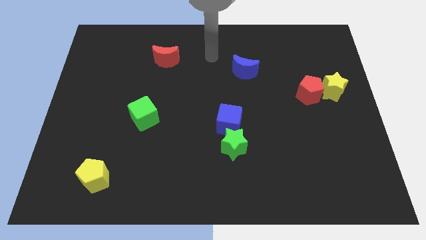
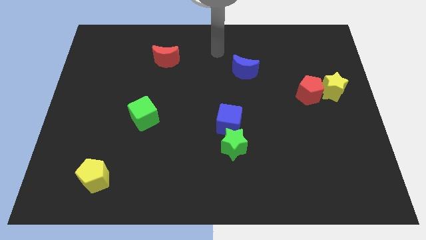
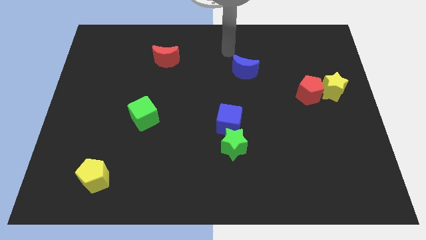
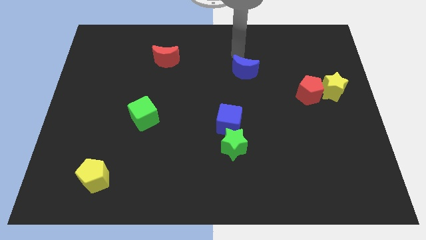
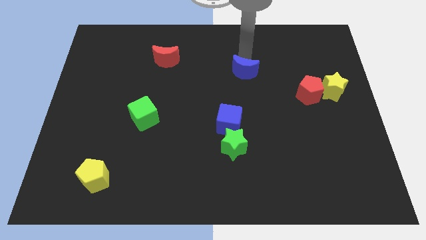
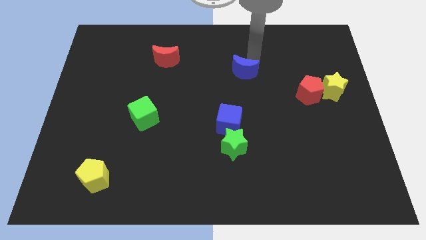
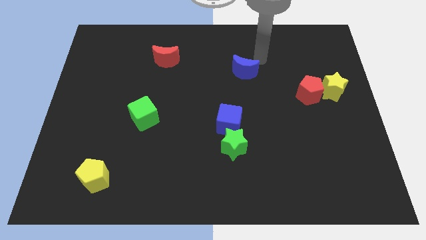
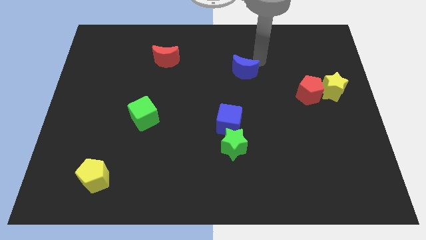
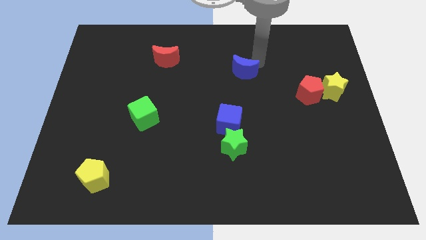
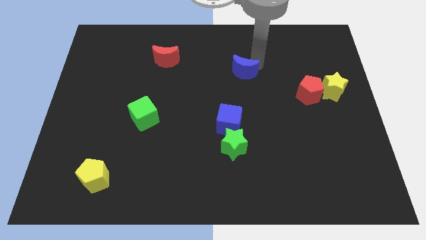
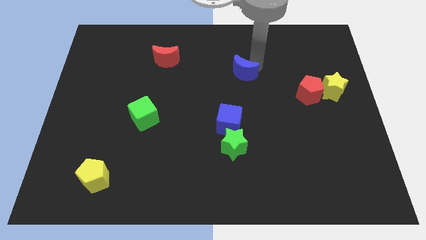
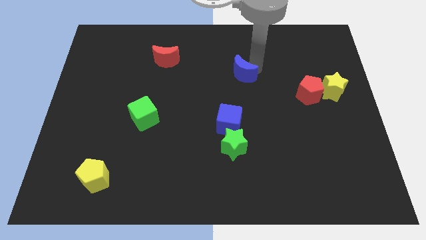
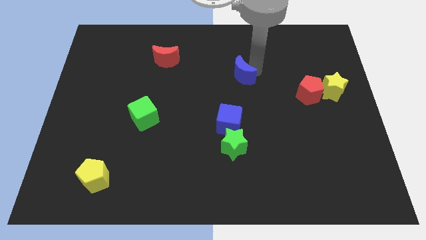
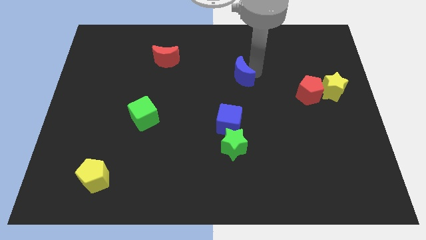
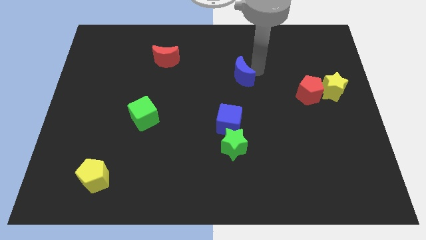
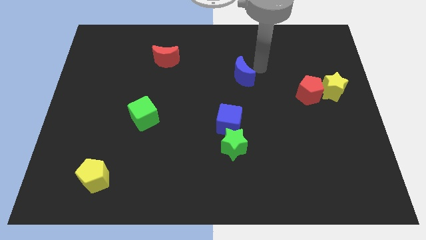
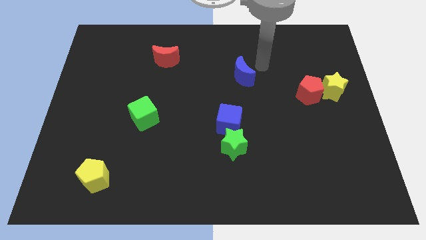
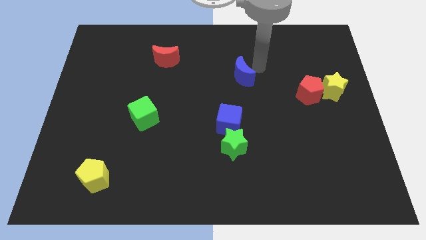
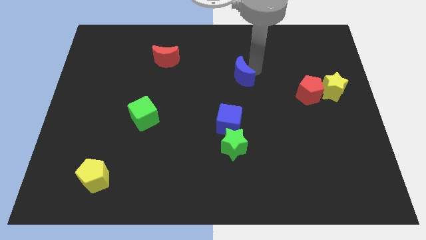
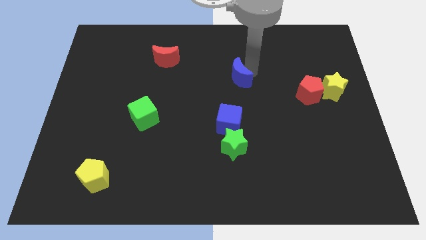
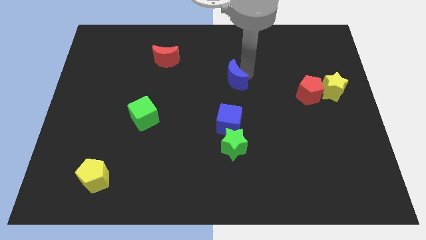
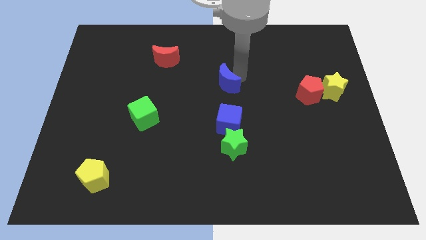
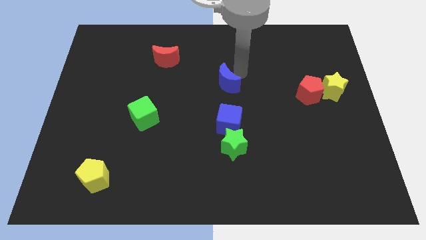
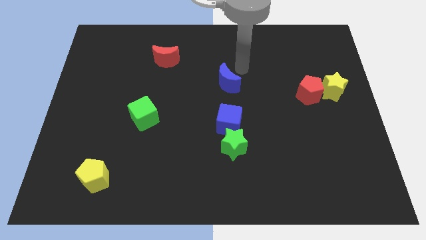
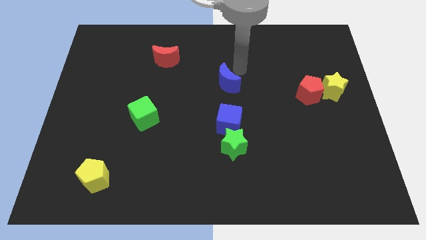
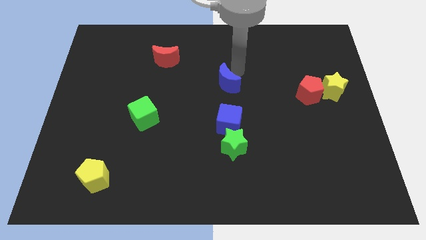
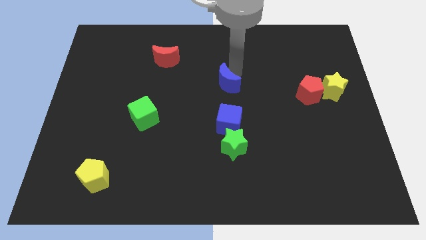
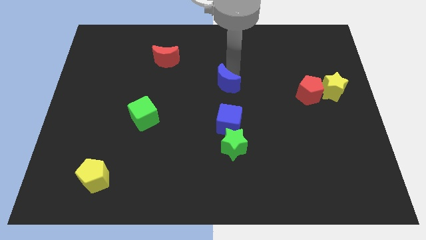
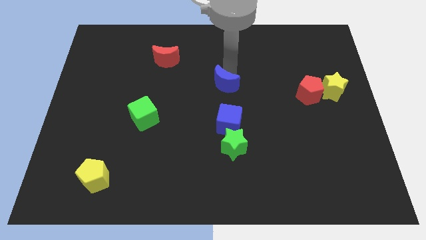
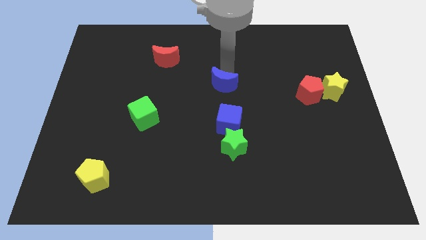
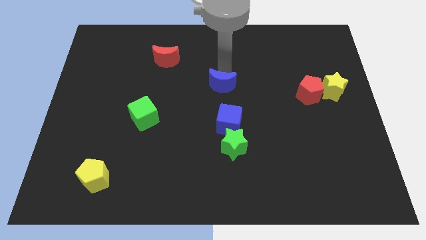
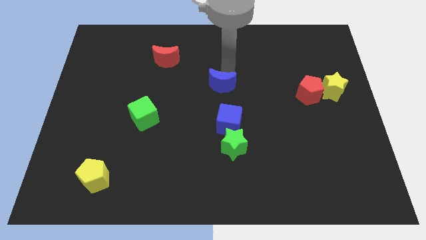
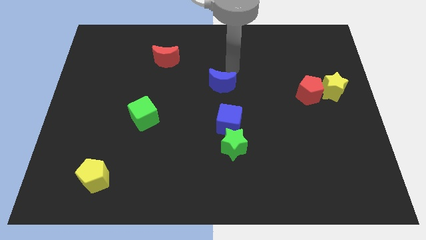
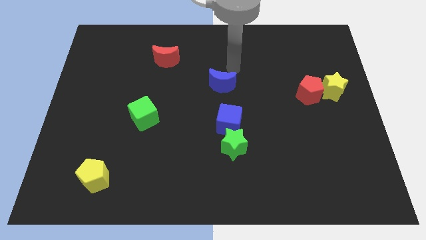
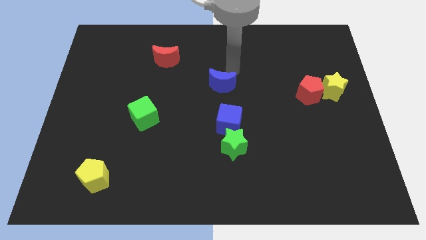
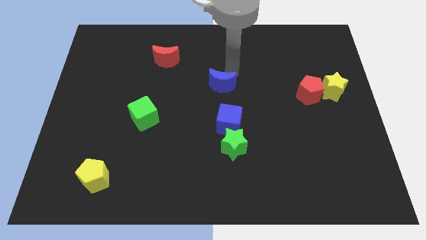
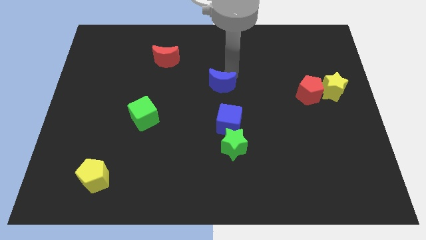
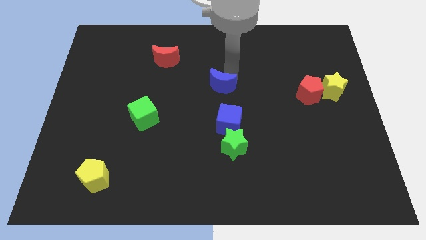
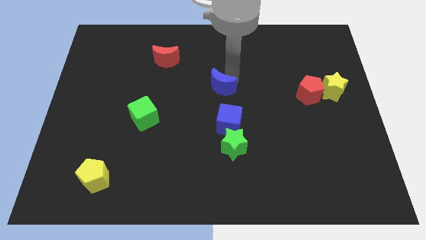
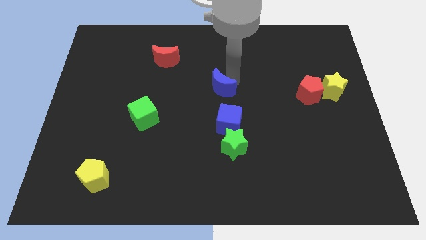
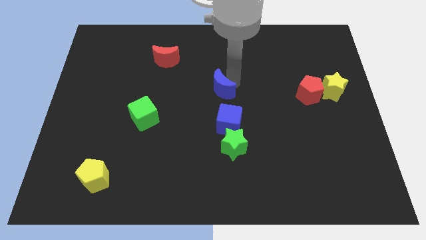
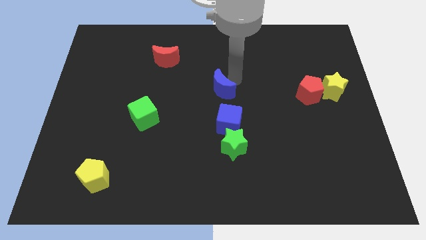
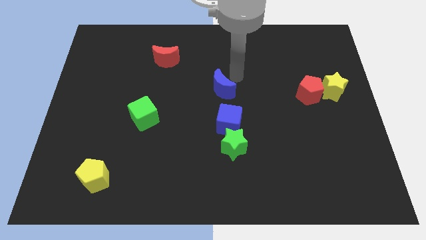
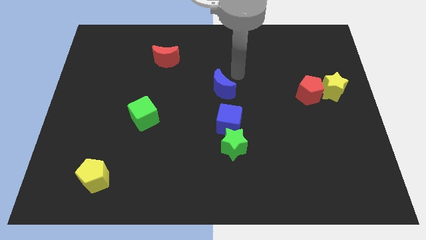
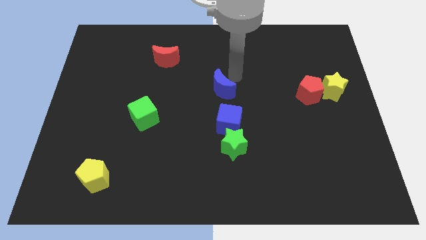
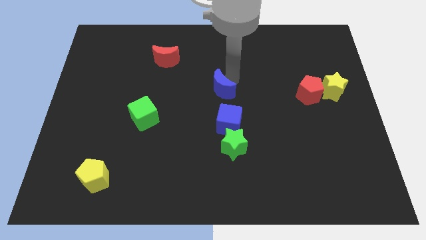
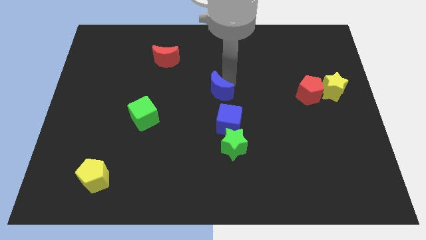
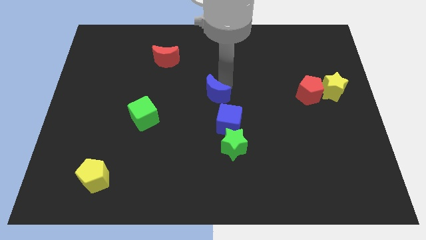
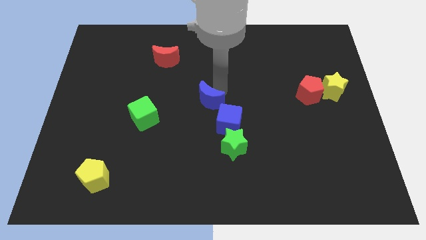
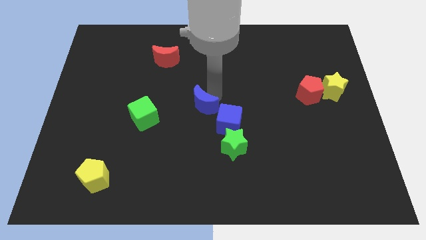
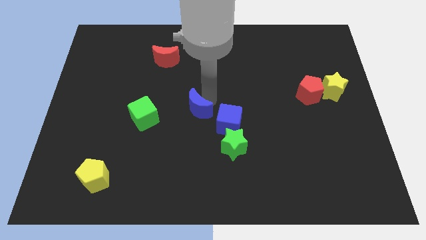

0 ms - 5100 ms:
move the blue moon to the left of the blue cube

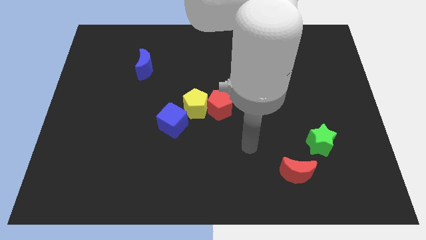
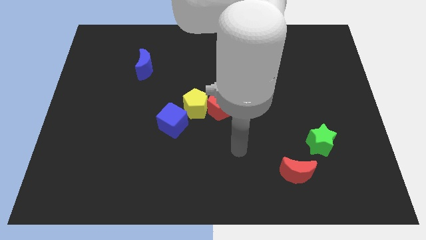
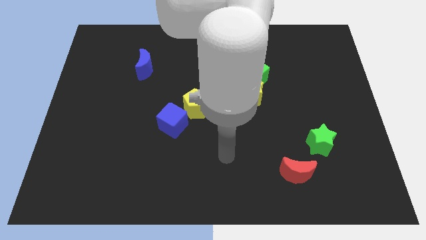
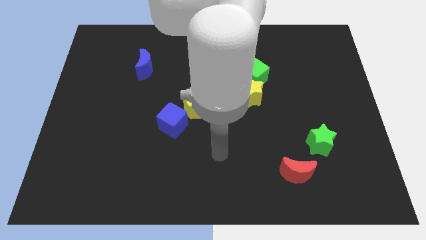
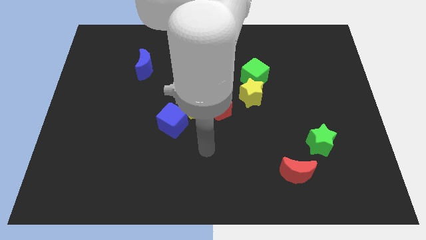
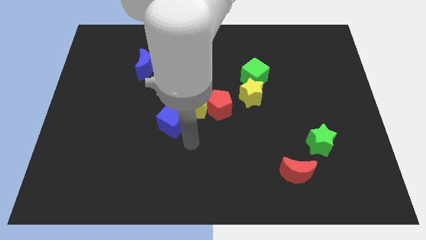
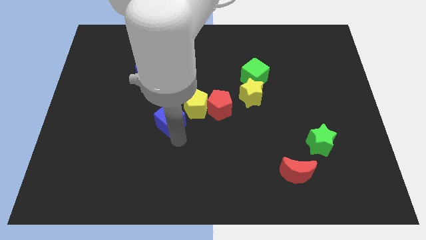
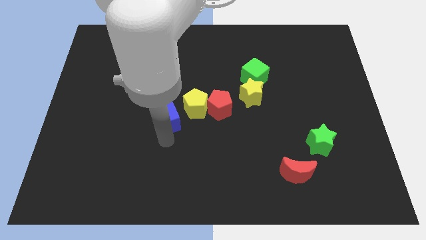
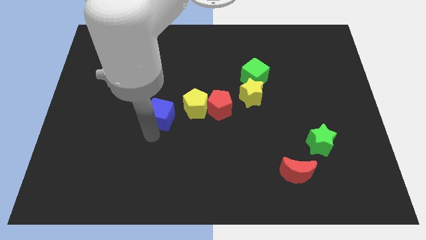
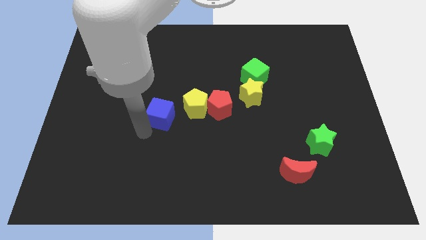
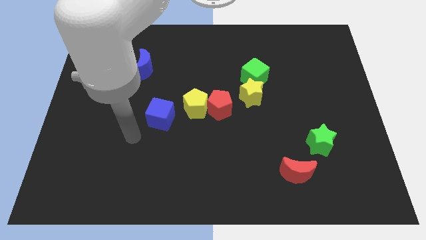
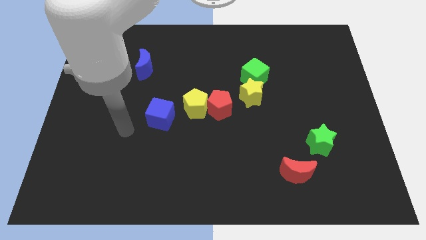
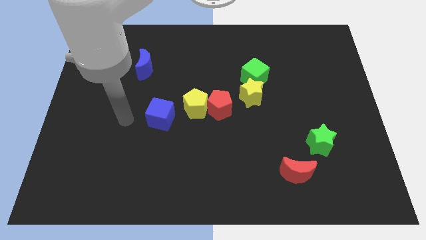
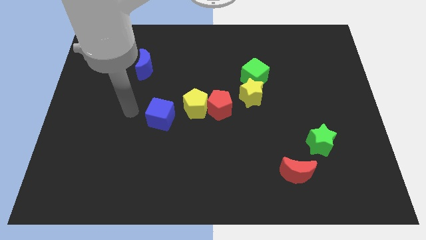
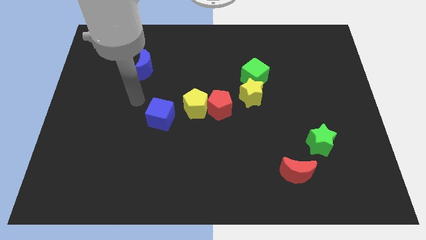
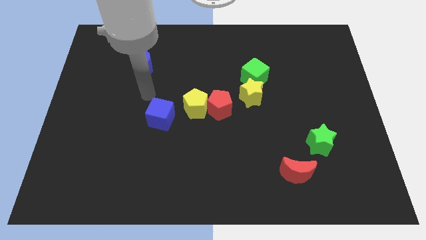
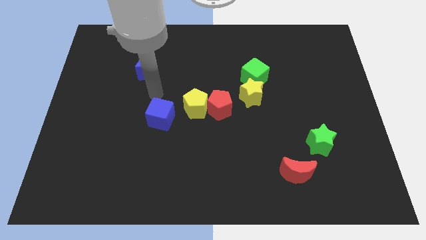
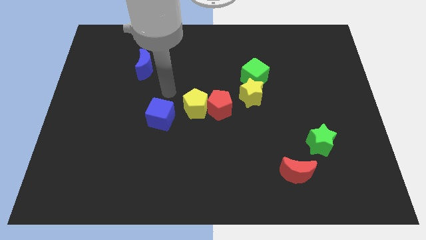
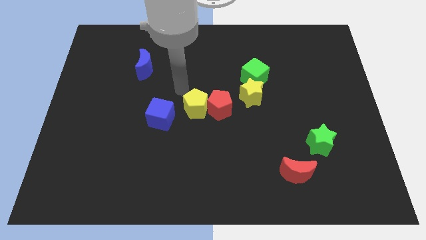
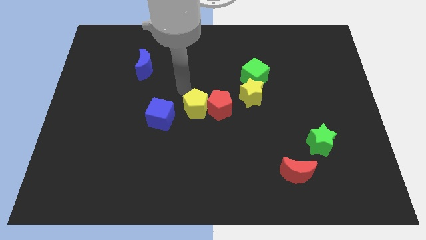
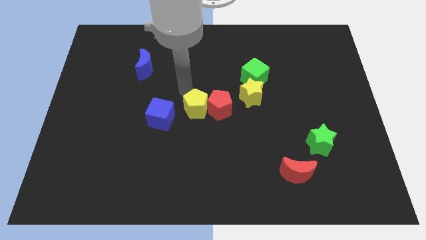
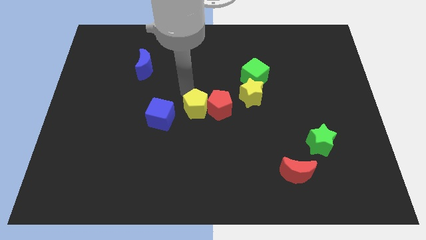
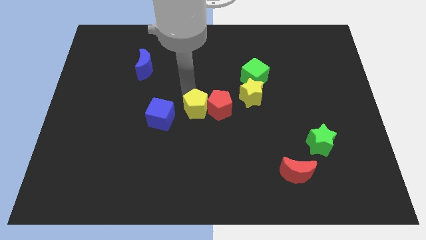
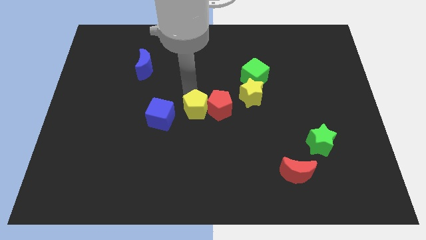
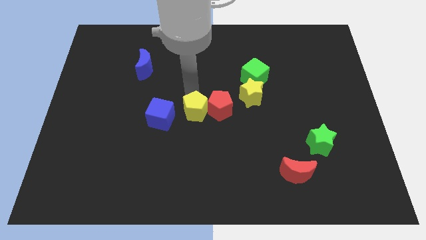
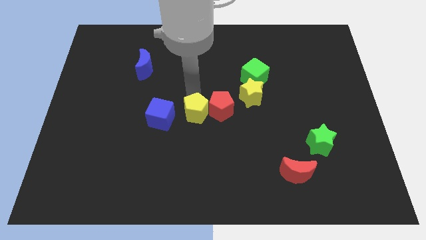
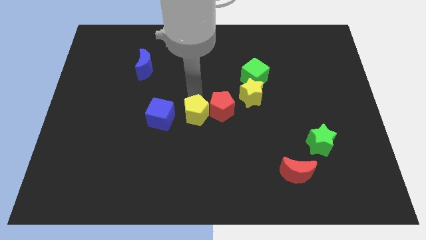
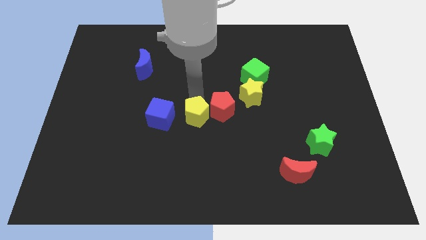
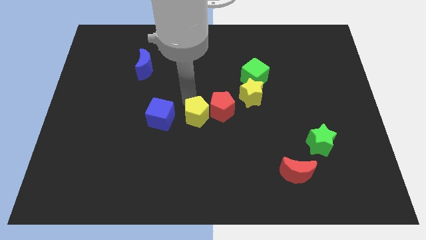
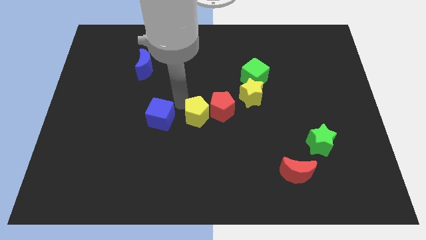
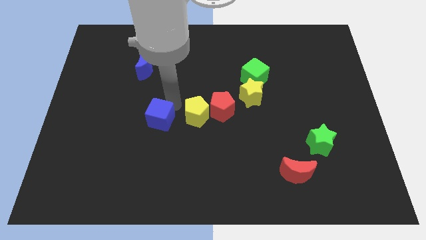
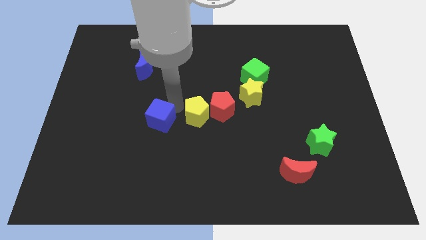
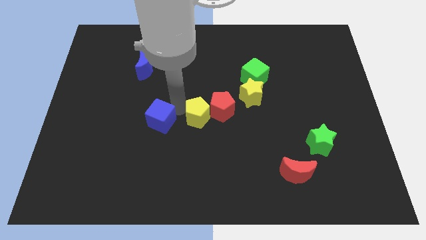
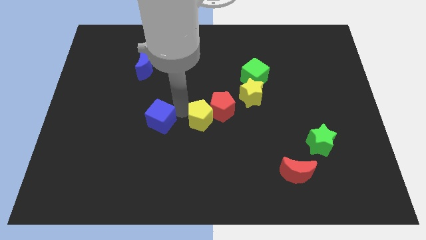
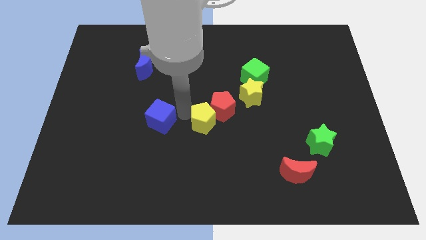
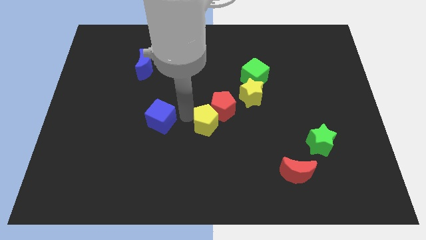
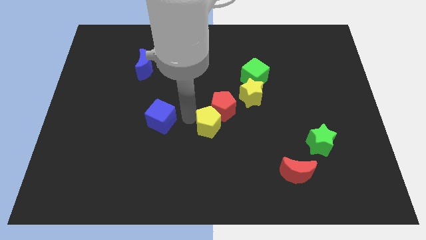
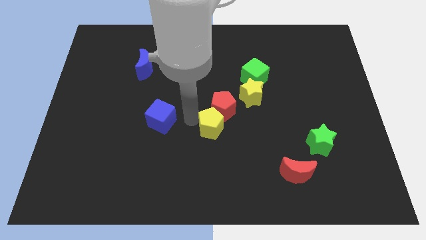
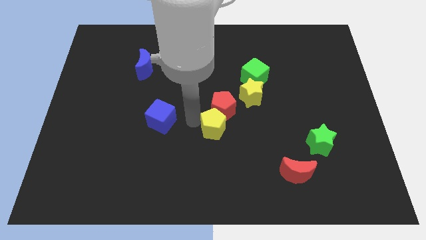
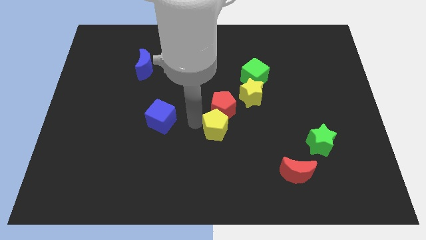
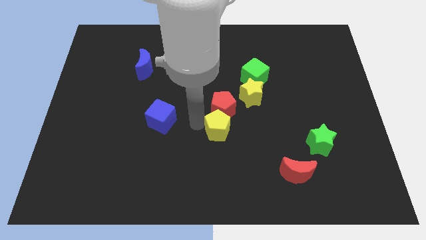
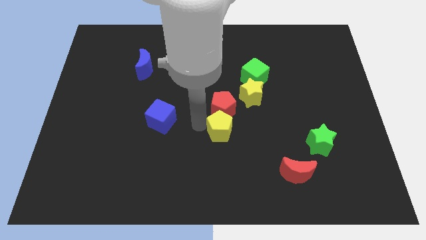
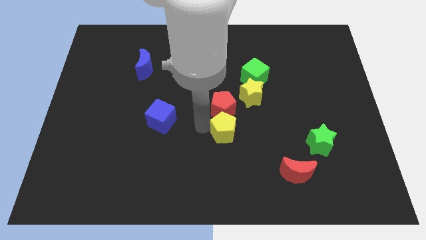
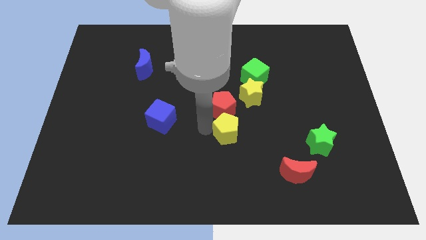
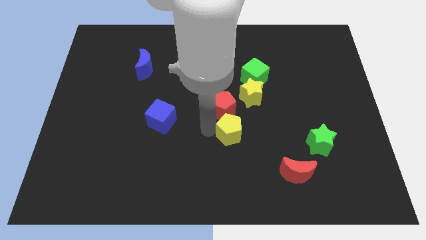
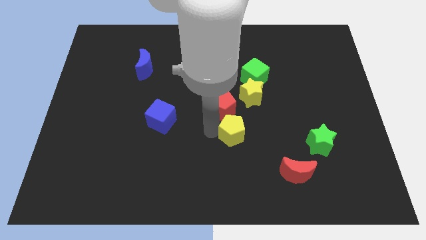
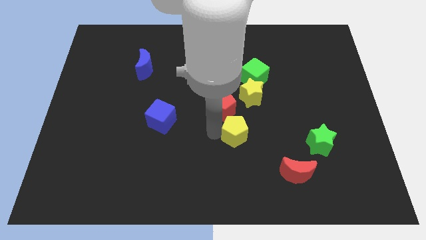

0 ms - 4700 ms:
move the yellow pentagon to the bottom side of the yellow star
